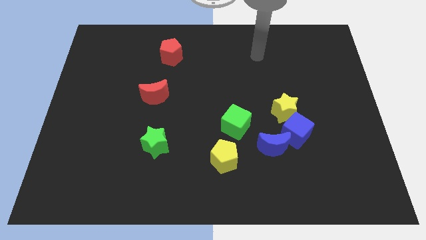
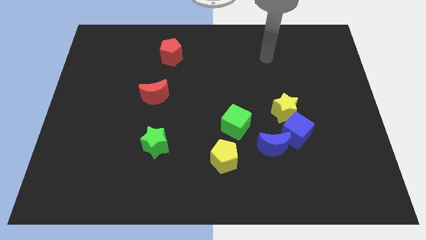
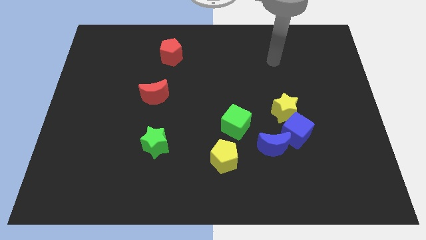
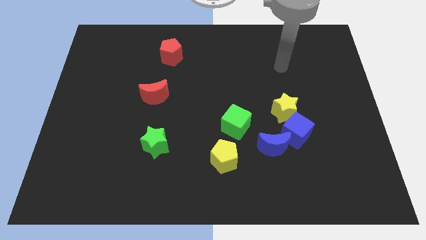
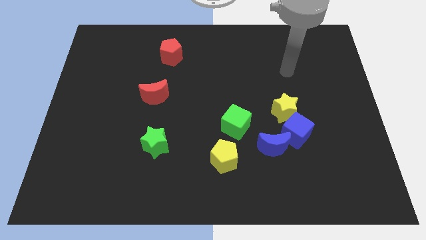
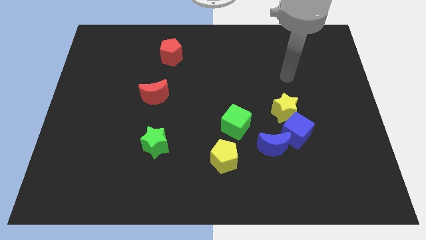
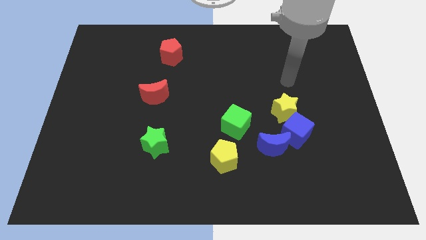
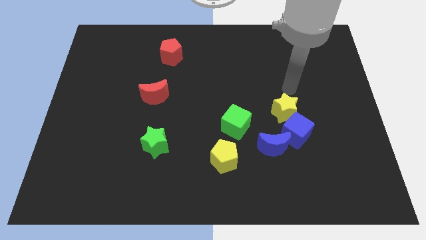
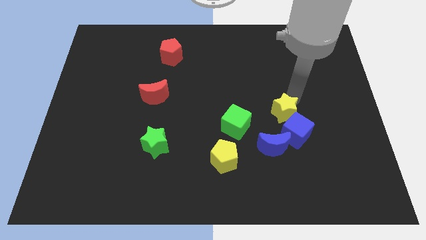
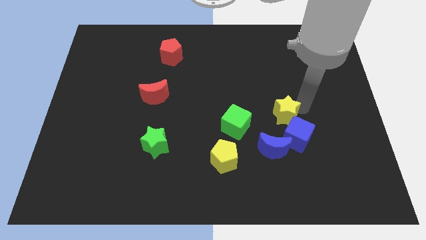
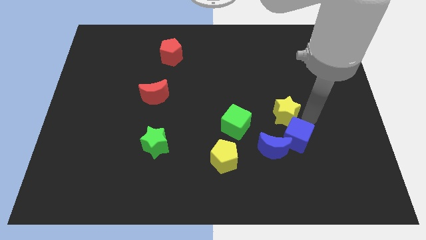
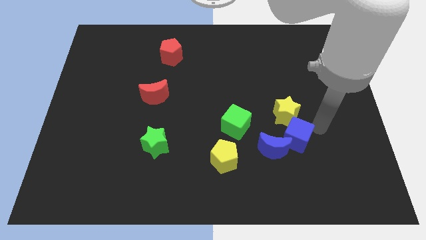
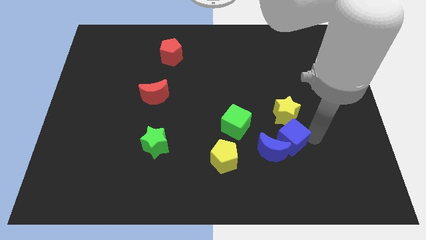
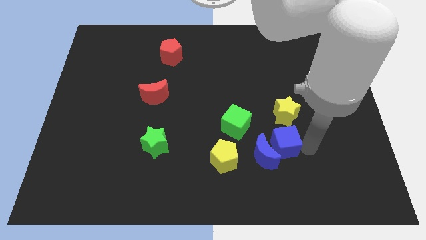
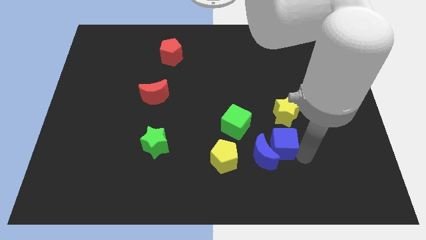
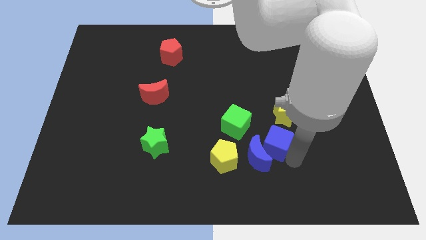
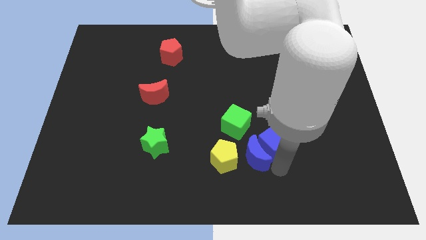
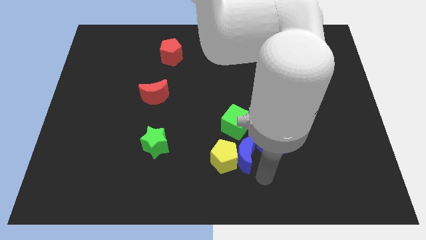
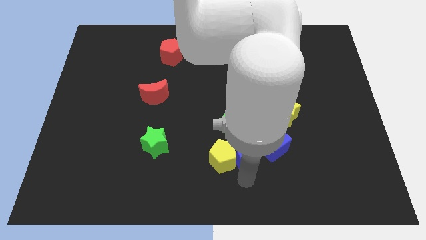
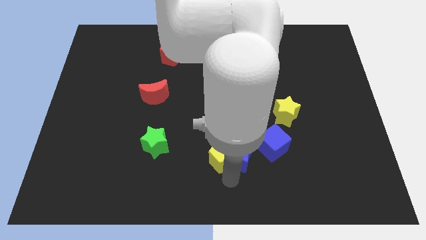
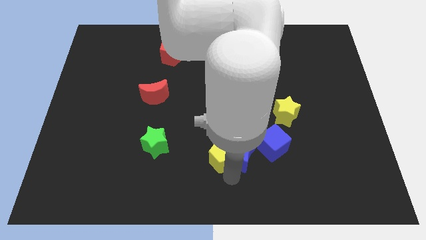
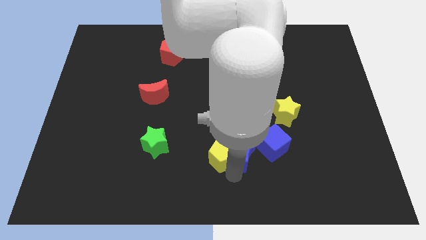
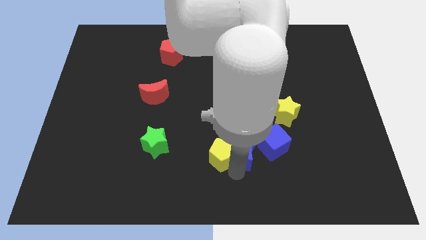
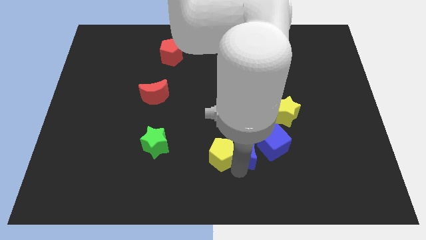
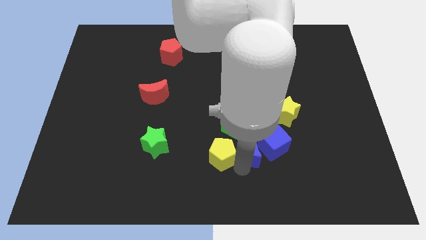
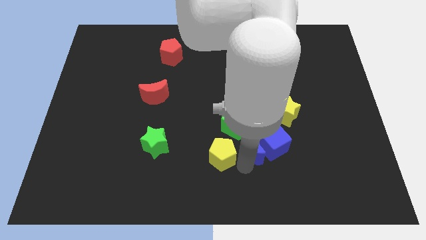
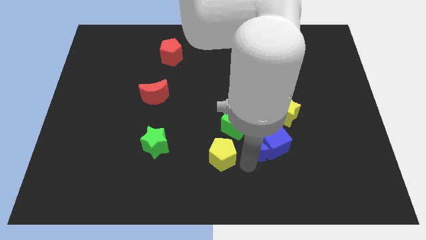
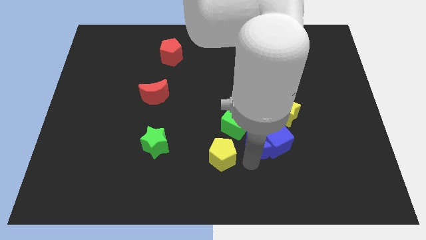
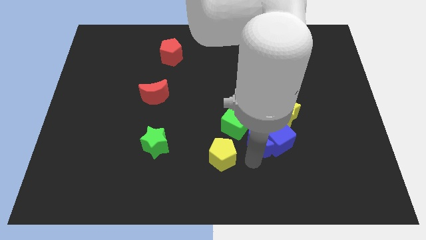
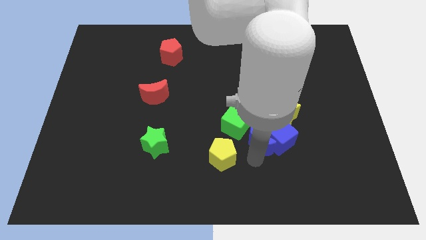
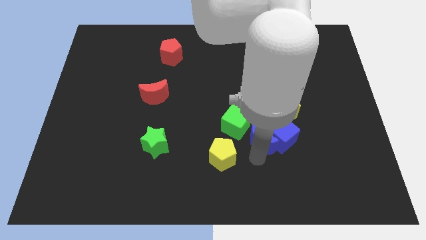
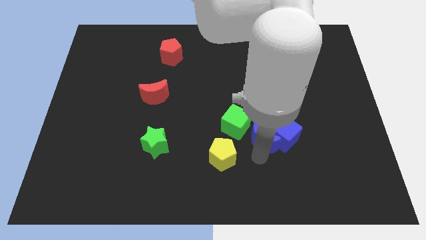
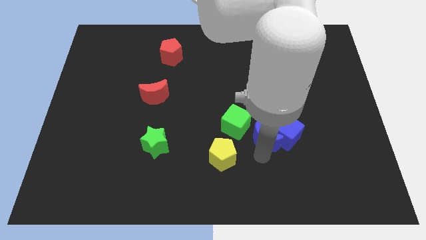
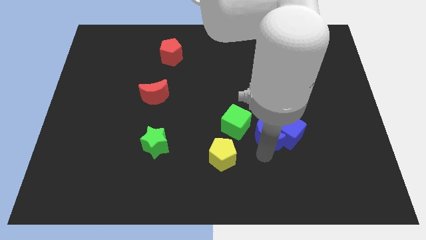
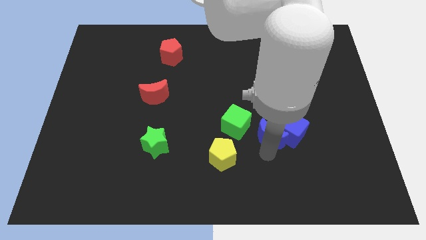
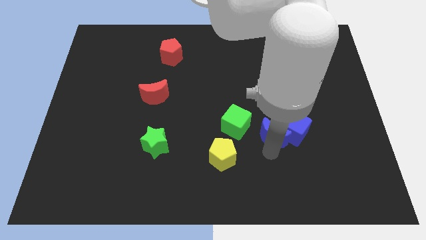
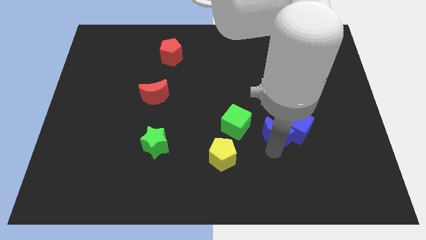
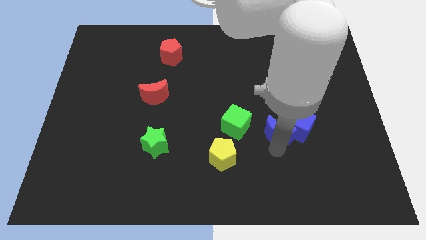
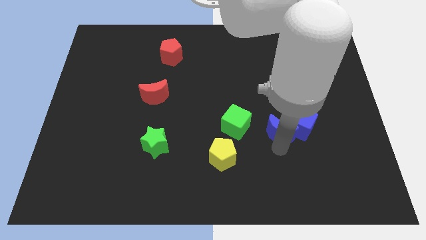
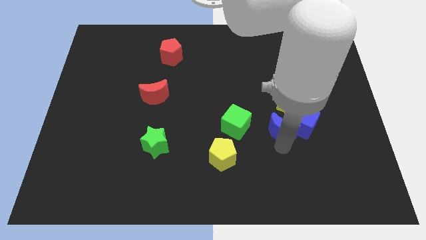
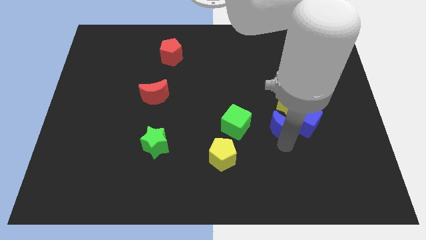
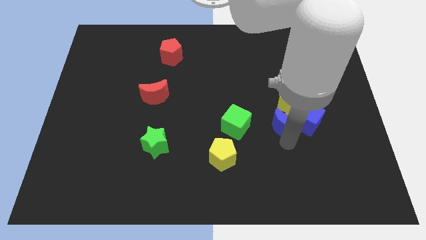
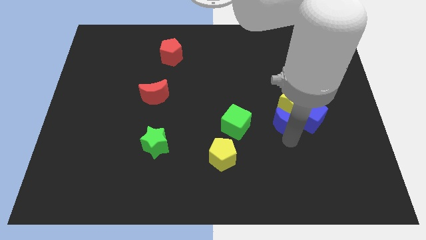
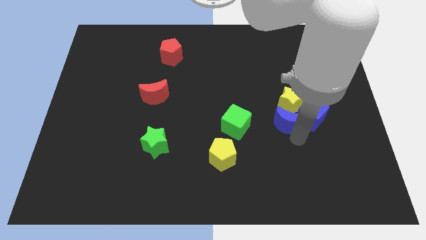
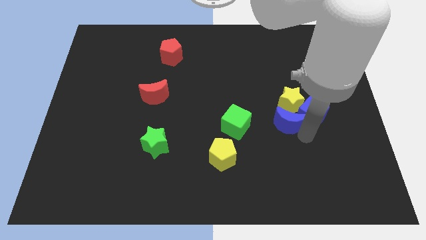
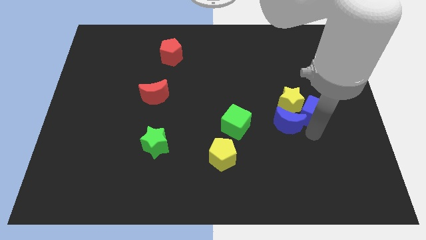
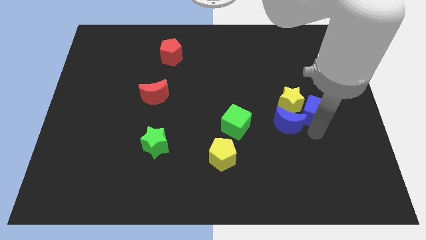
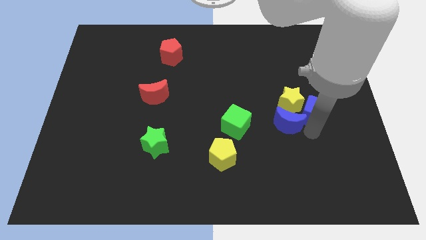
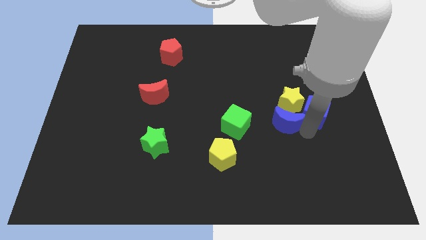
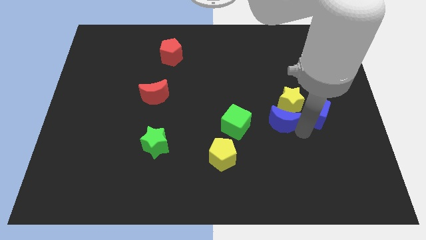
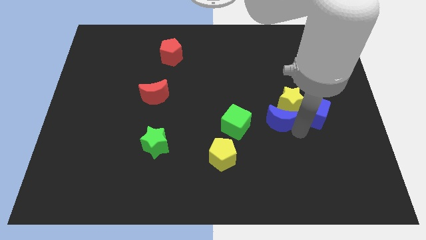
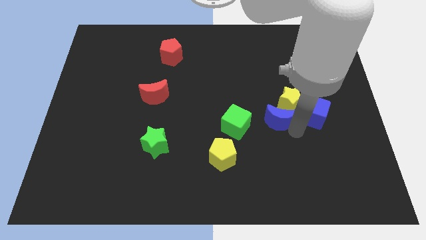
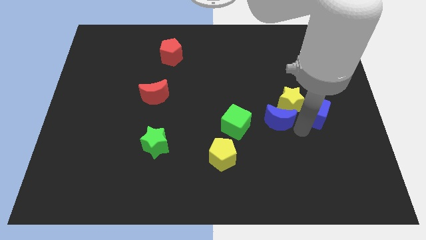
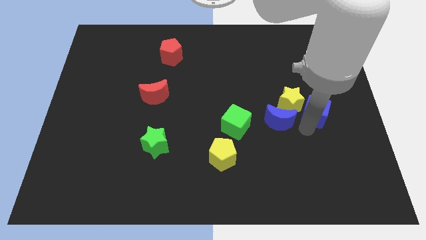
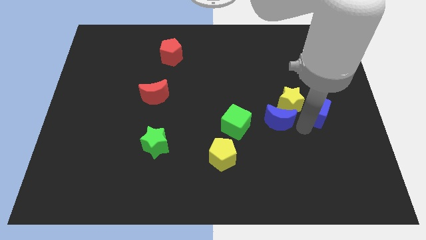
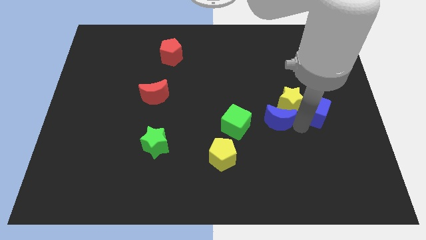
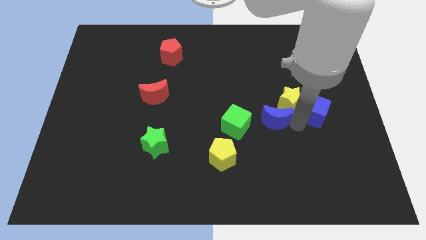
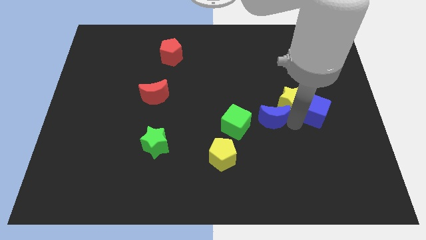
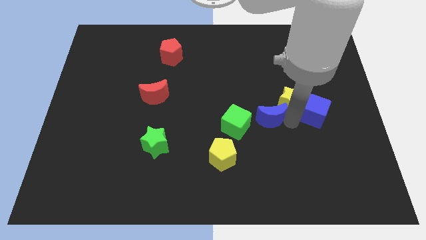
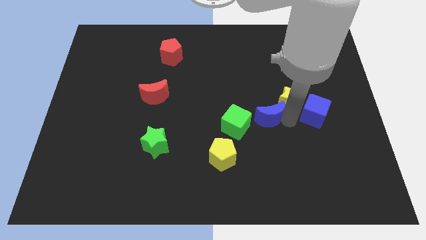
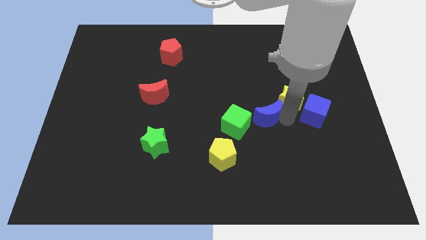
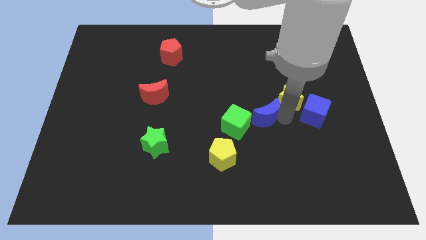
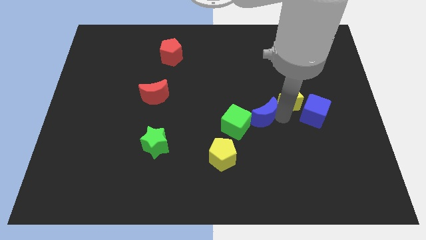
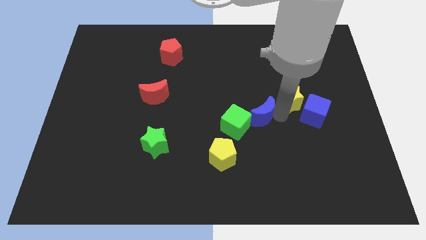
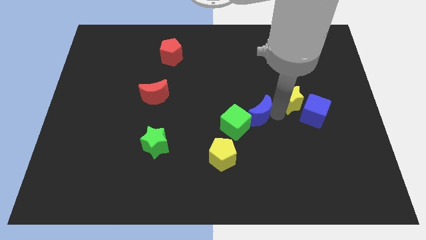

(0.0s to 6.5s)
slightly move the blue moon diagonally upwards and left

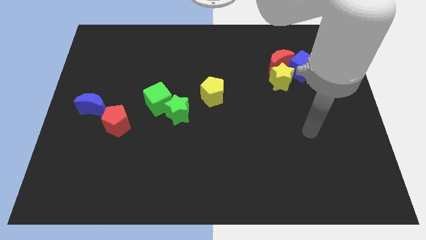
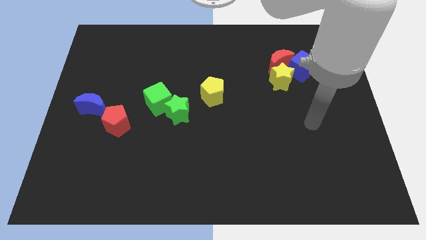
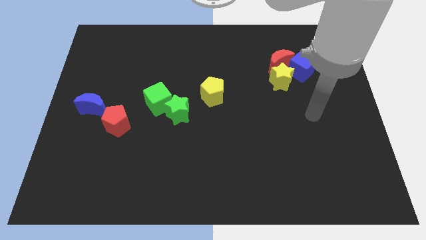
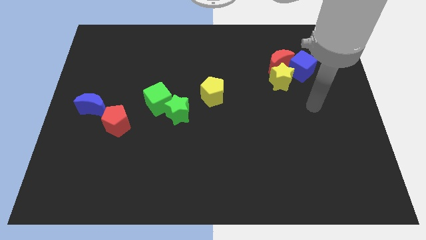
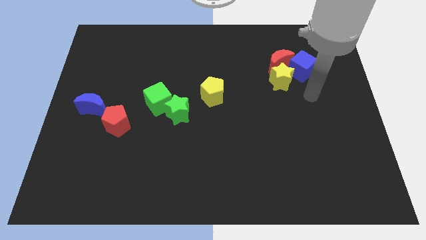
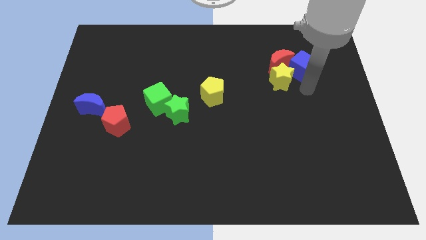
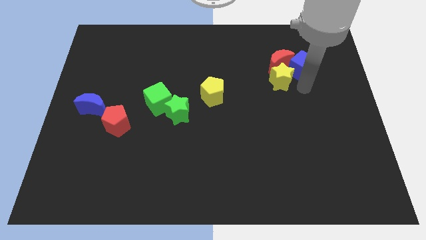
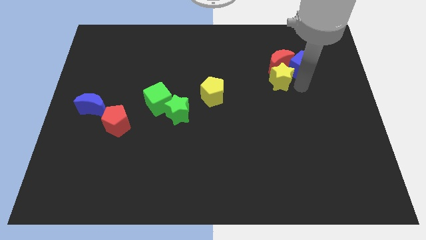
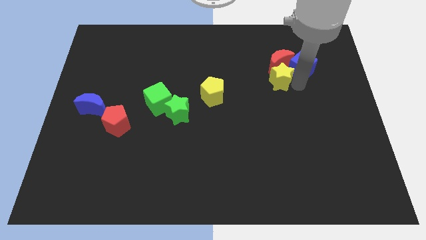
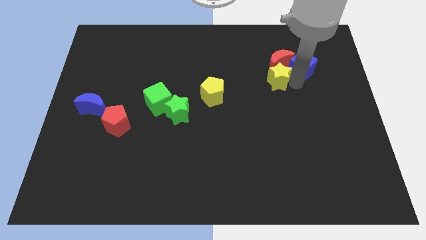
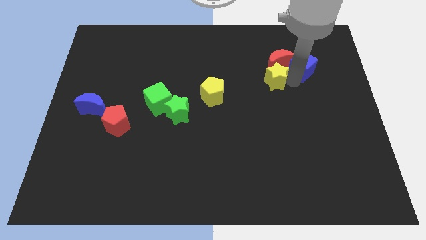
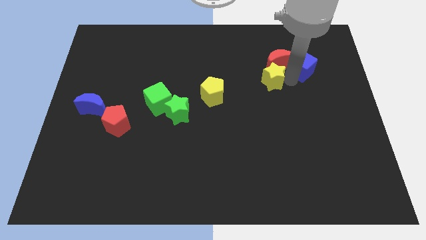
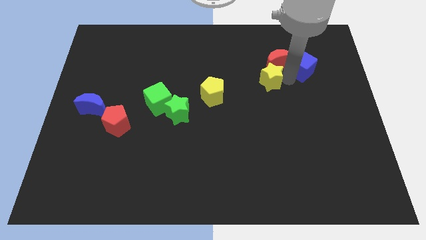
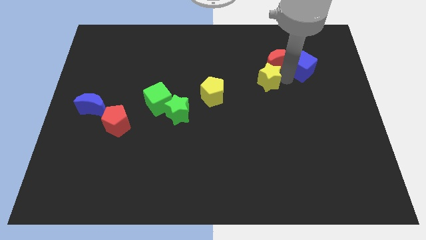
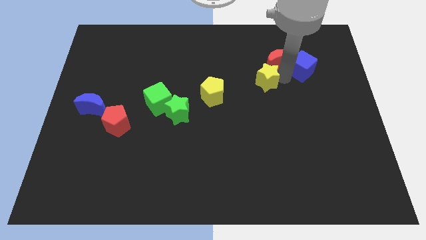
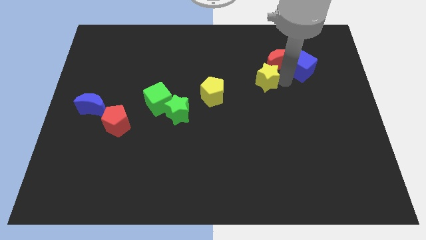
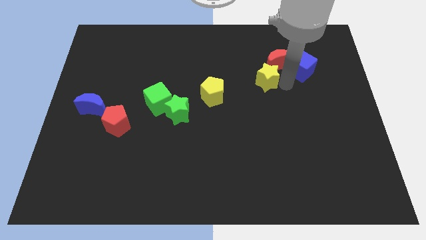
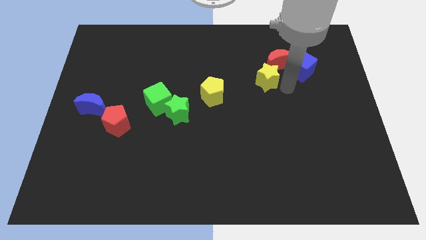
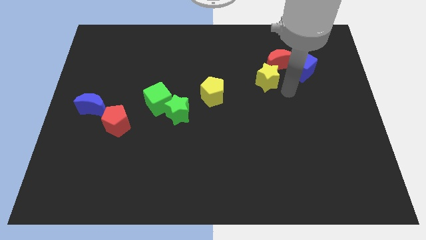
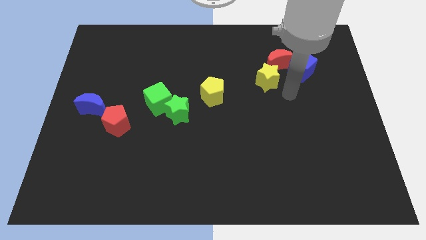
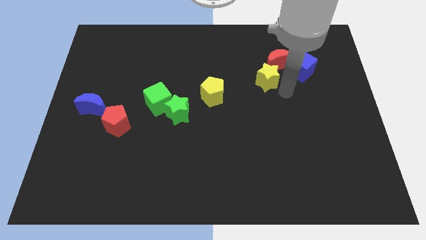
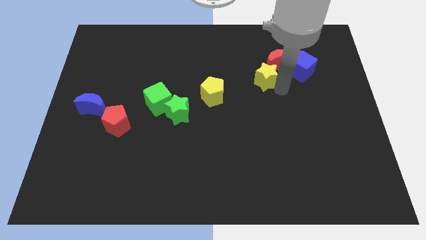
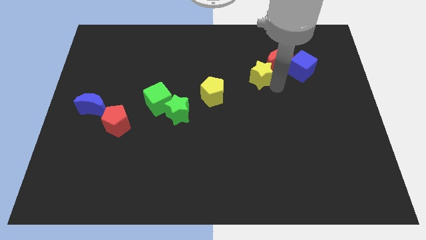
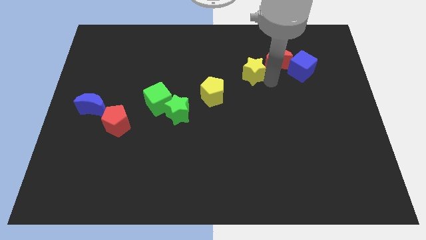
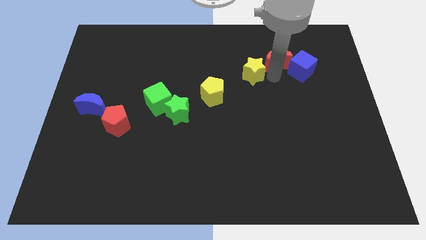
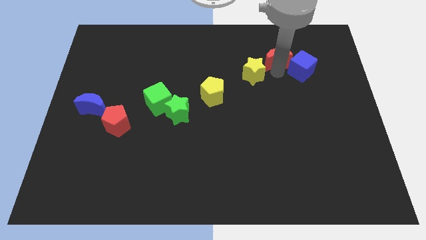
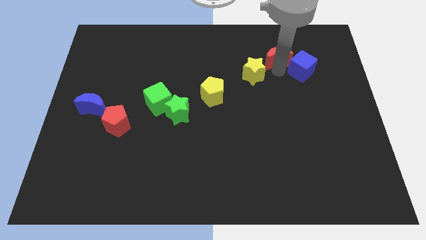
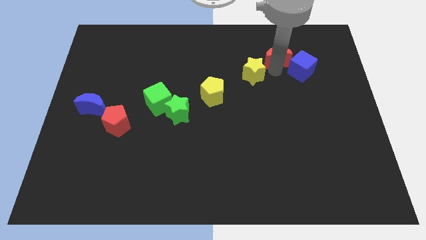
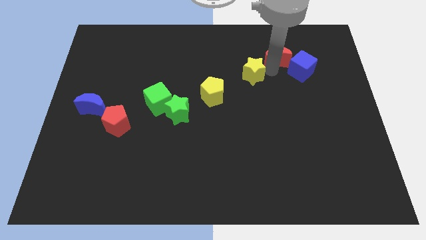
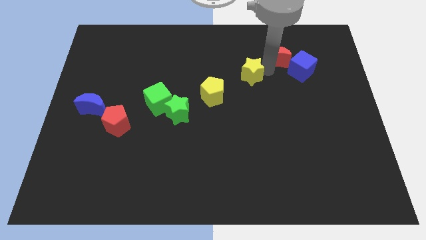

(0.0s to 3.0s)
slightly slide the yellow star left
